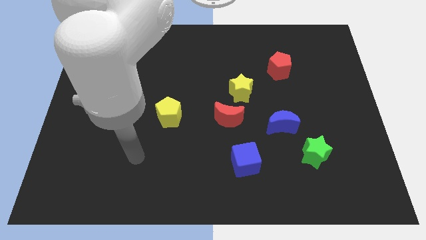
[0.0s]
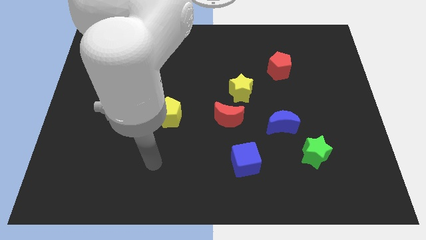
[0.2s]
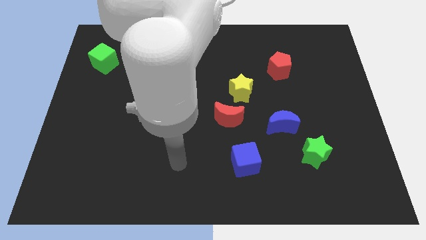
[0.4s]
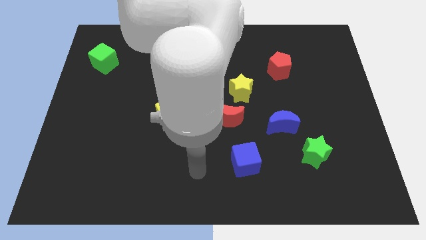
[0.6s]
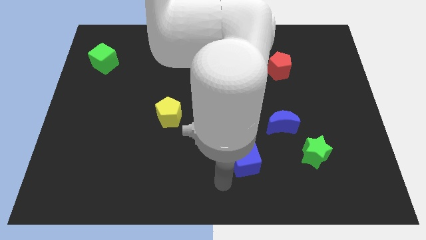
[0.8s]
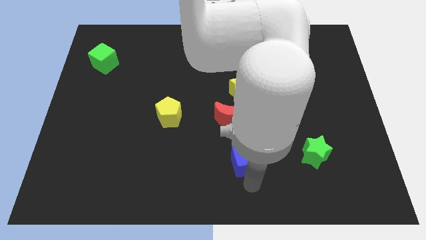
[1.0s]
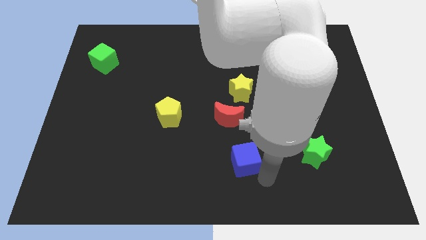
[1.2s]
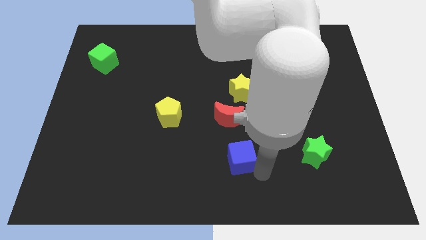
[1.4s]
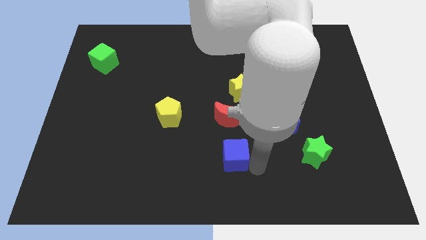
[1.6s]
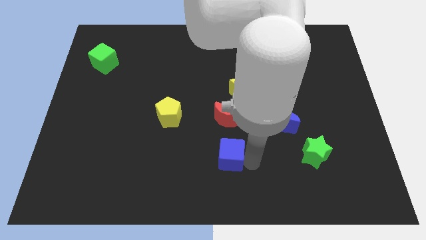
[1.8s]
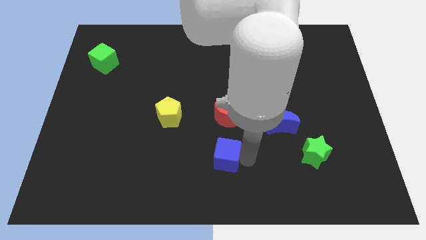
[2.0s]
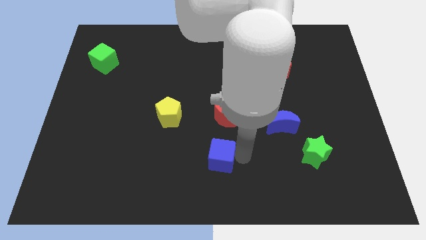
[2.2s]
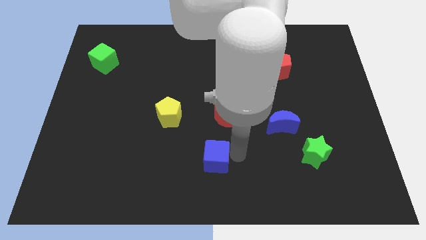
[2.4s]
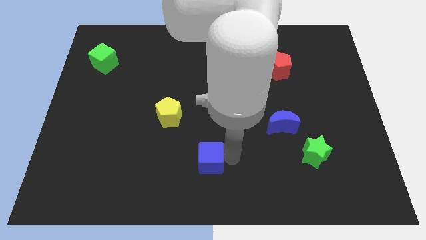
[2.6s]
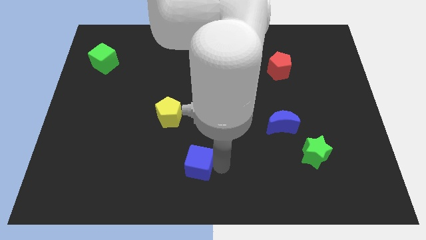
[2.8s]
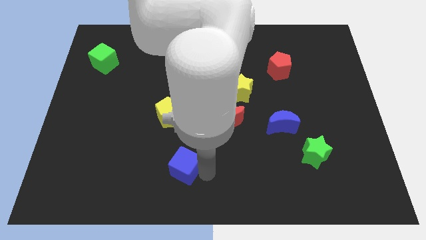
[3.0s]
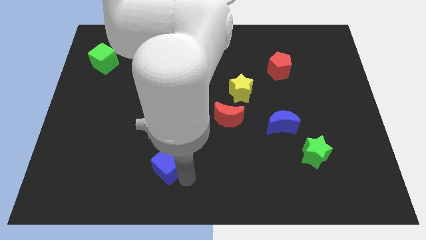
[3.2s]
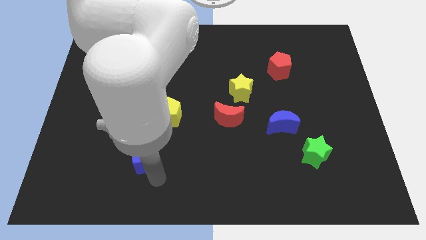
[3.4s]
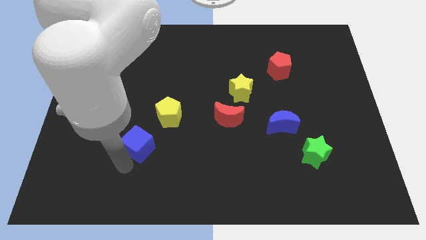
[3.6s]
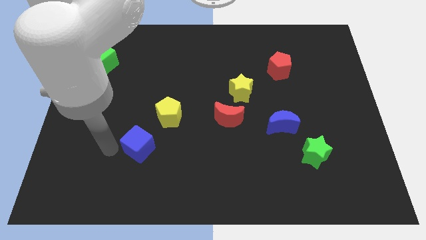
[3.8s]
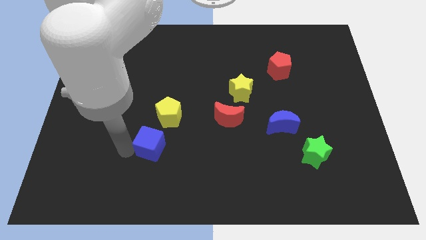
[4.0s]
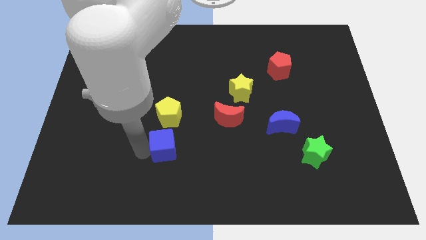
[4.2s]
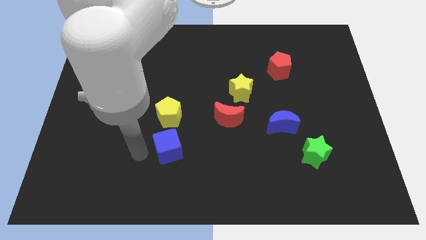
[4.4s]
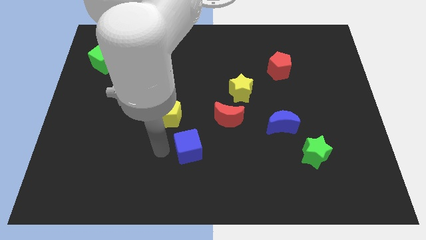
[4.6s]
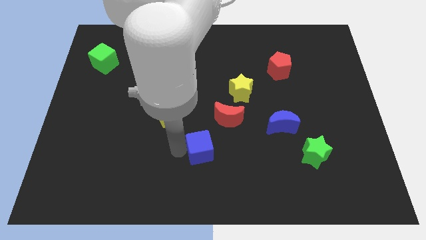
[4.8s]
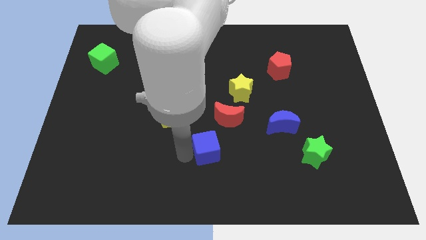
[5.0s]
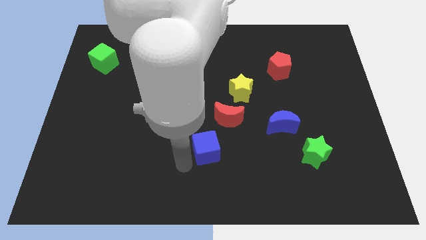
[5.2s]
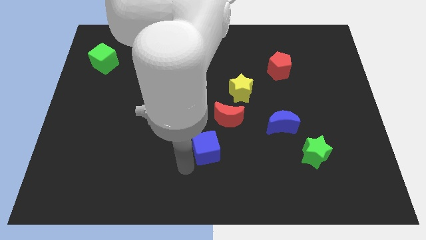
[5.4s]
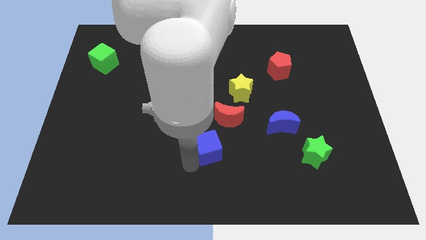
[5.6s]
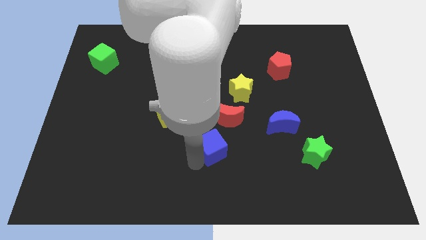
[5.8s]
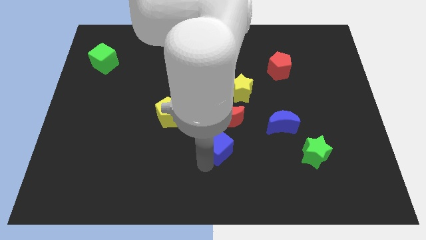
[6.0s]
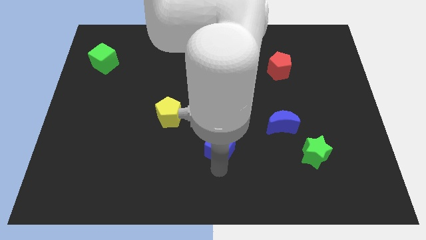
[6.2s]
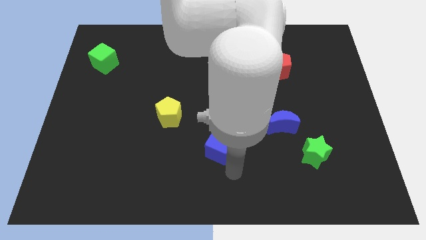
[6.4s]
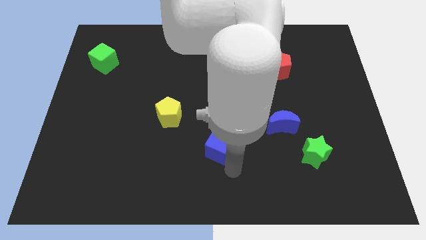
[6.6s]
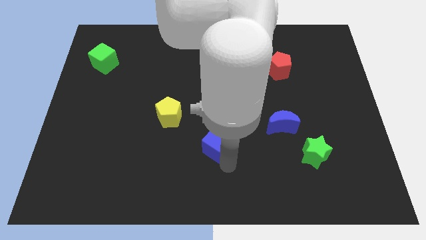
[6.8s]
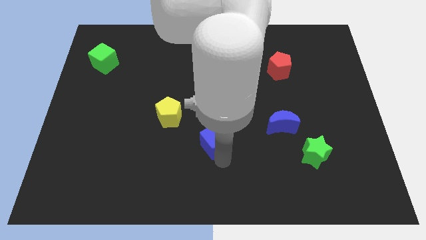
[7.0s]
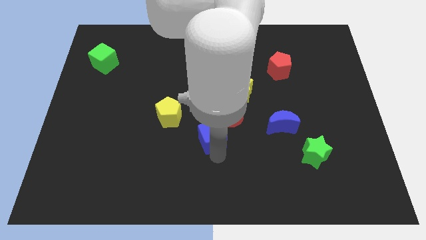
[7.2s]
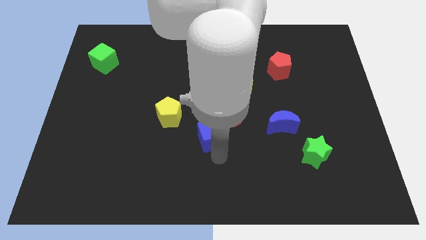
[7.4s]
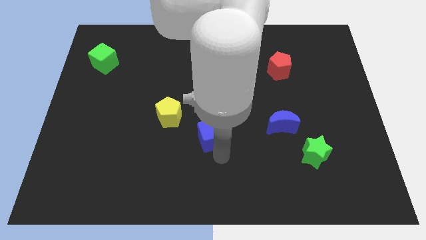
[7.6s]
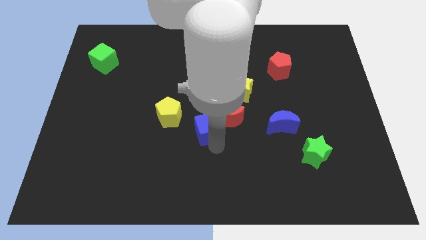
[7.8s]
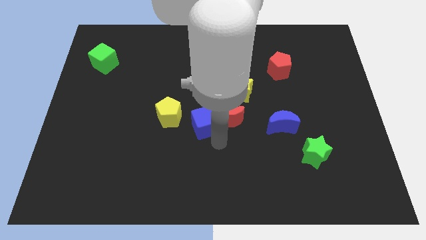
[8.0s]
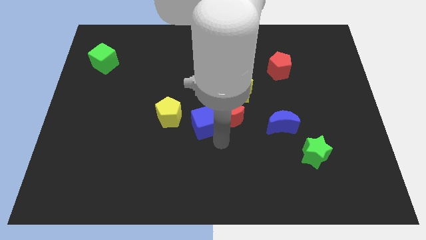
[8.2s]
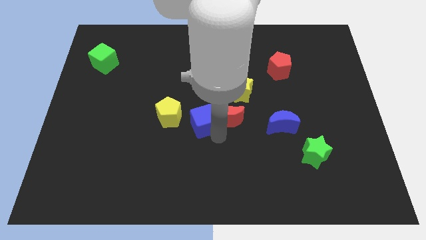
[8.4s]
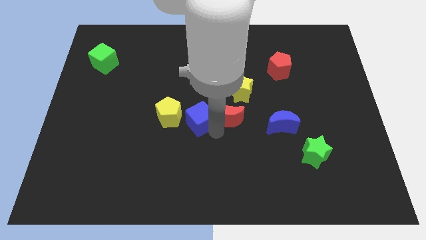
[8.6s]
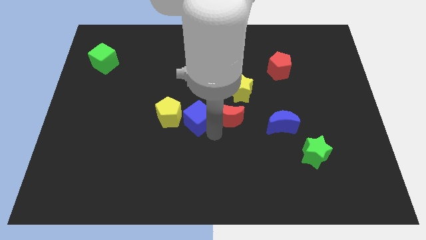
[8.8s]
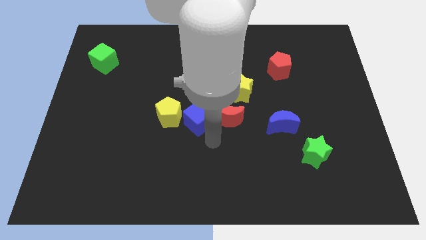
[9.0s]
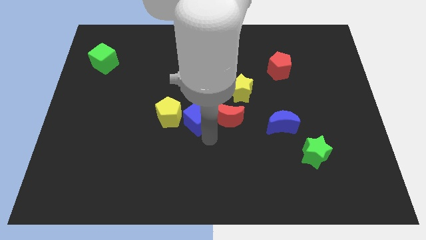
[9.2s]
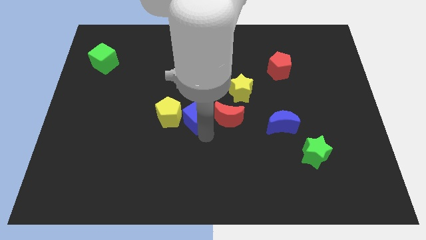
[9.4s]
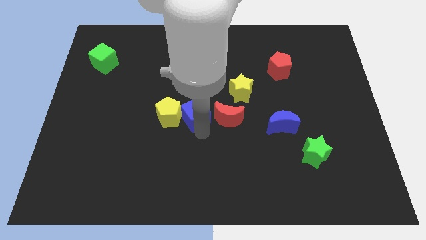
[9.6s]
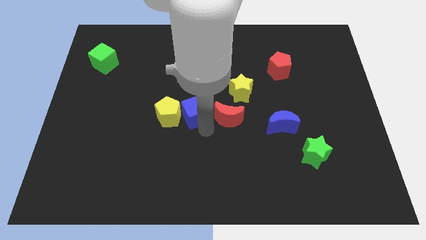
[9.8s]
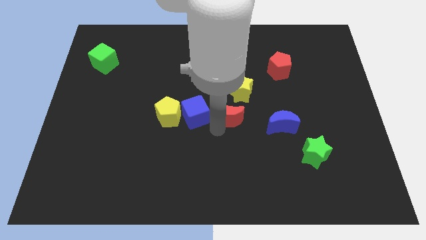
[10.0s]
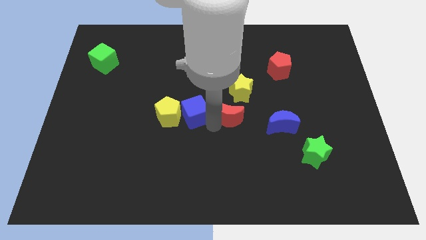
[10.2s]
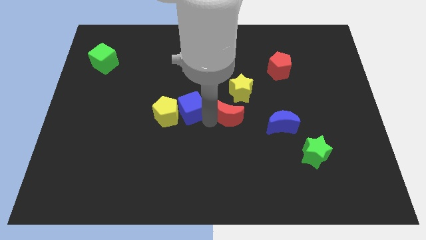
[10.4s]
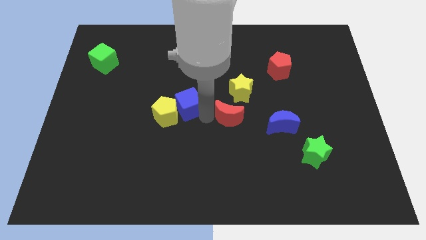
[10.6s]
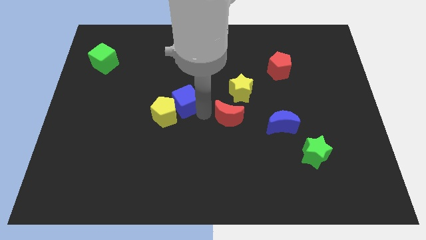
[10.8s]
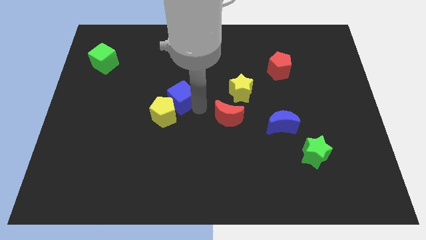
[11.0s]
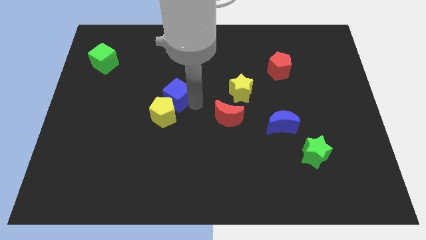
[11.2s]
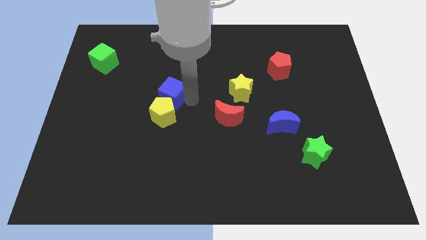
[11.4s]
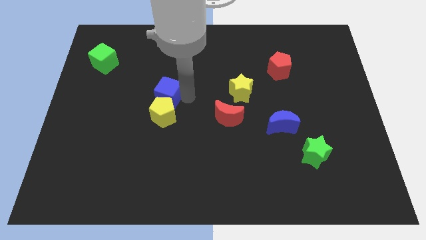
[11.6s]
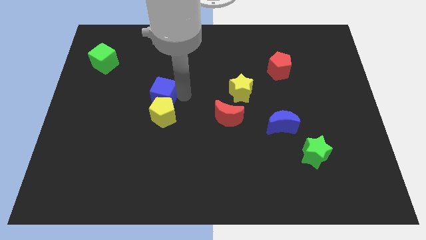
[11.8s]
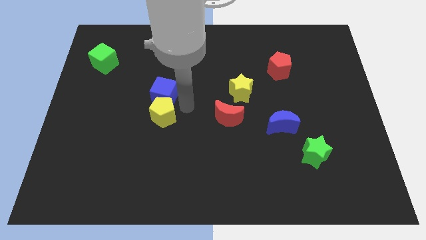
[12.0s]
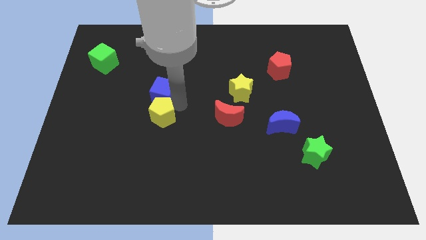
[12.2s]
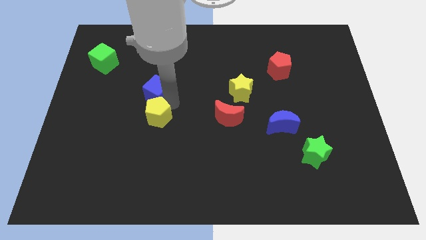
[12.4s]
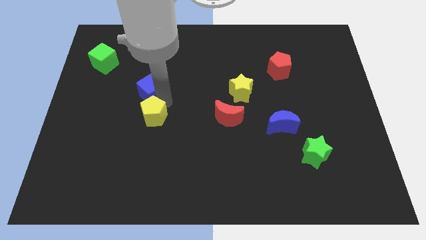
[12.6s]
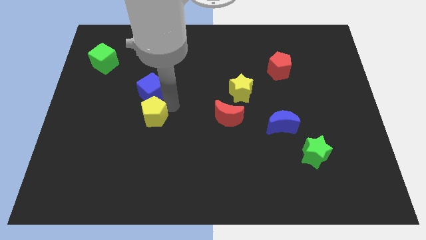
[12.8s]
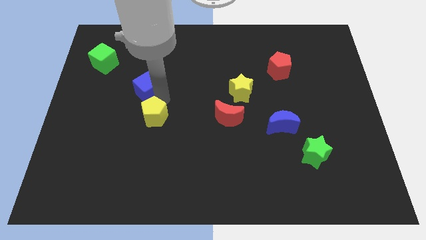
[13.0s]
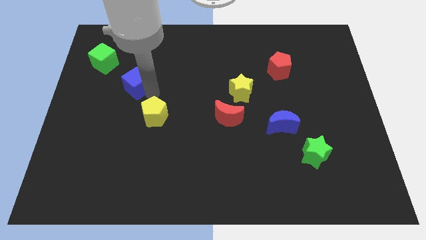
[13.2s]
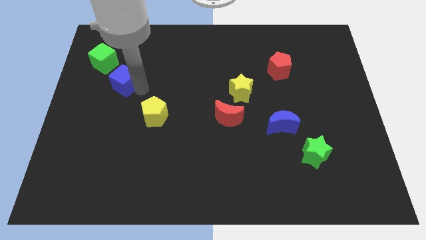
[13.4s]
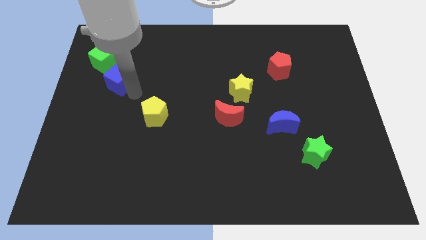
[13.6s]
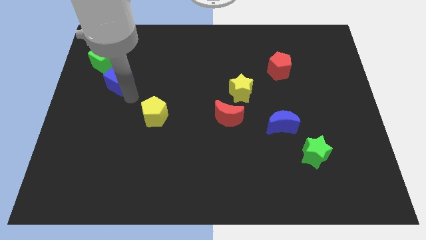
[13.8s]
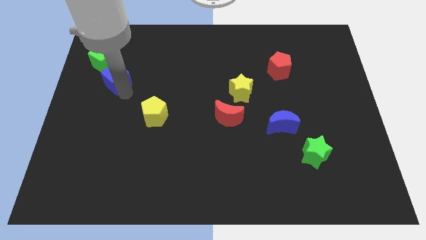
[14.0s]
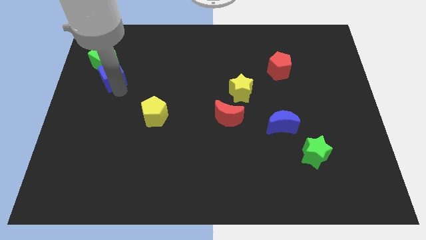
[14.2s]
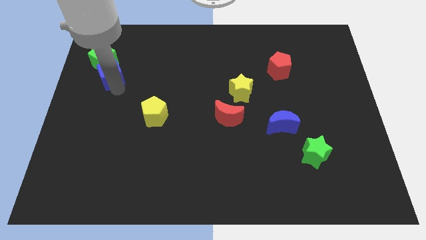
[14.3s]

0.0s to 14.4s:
put the blue cube towards the green cube

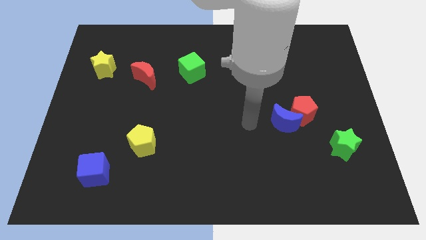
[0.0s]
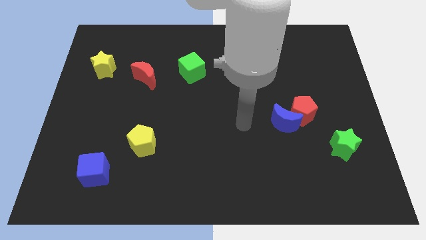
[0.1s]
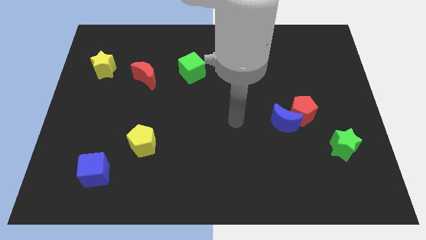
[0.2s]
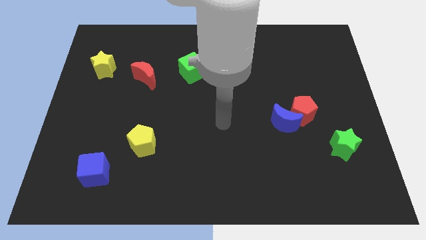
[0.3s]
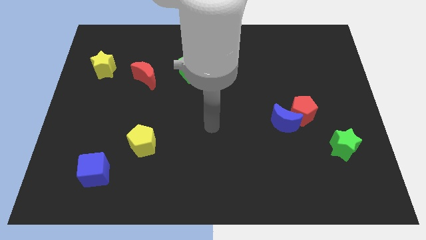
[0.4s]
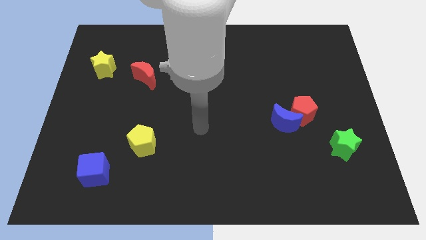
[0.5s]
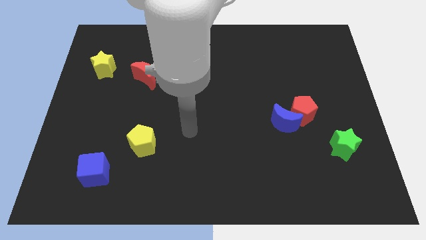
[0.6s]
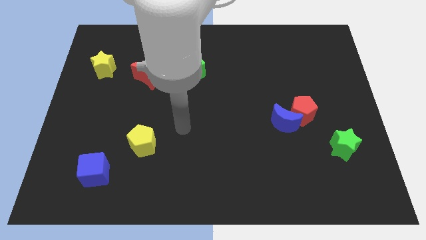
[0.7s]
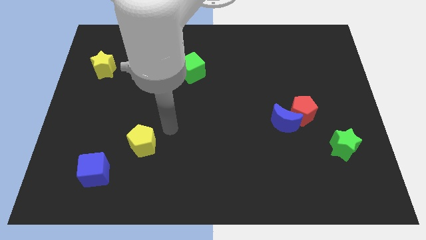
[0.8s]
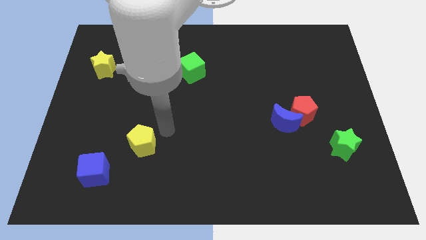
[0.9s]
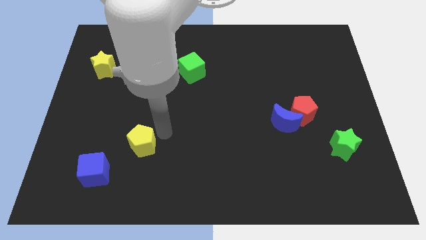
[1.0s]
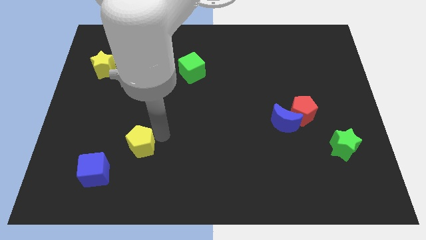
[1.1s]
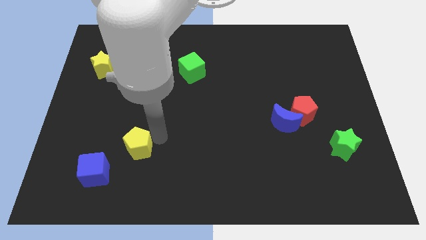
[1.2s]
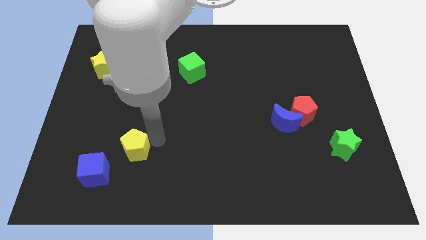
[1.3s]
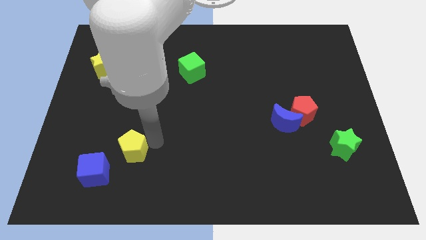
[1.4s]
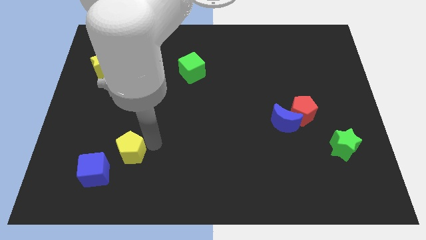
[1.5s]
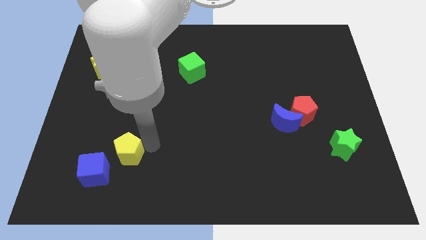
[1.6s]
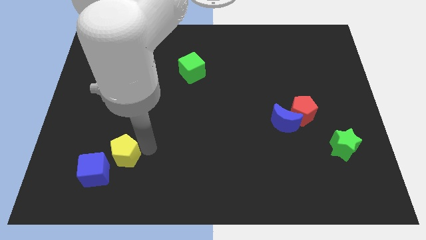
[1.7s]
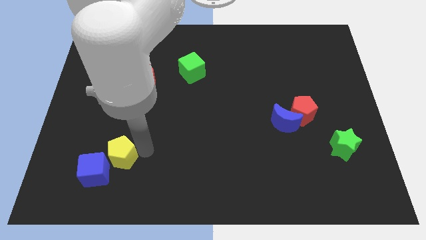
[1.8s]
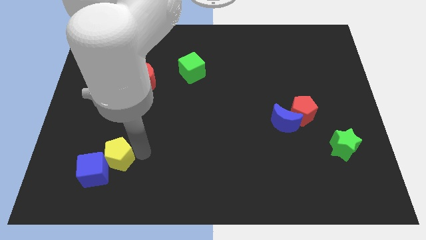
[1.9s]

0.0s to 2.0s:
move the yellow pentagon next to the blue cube
